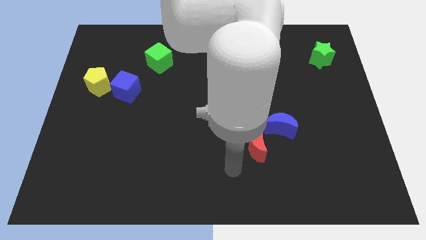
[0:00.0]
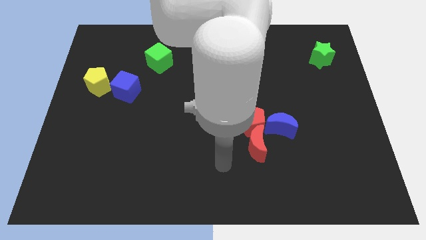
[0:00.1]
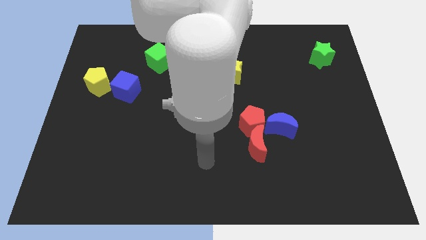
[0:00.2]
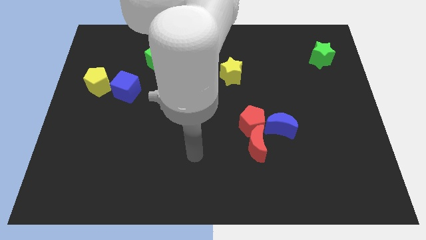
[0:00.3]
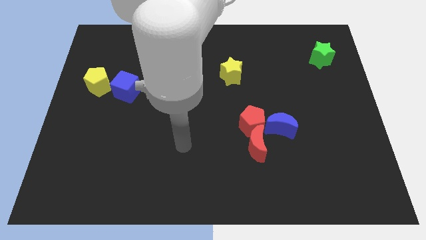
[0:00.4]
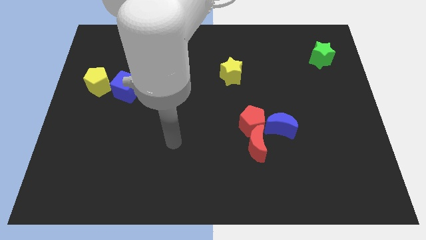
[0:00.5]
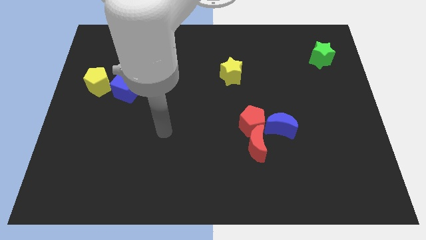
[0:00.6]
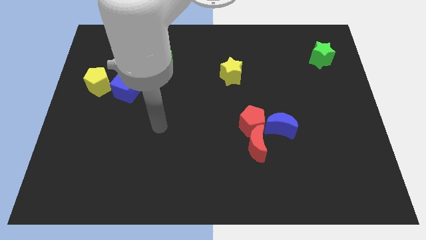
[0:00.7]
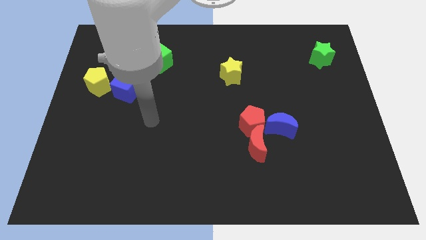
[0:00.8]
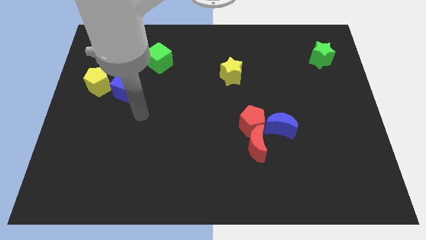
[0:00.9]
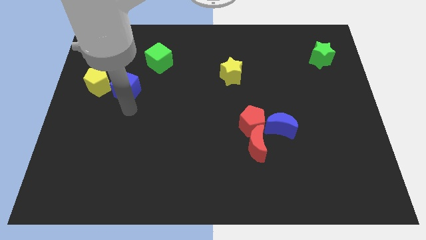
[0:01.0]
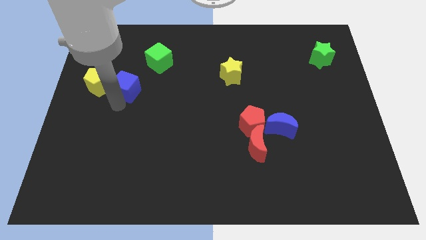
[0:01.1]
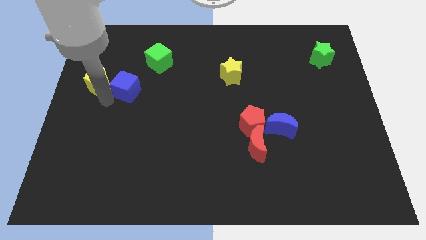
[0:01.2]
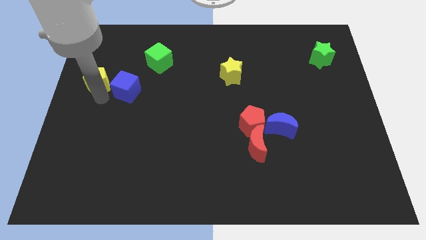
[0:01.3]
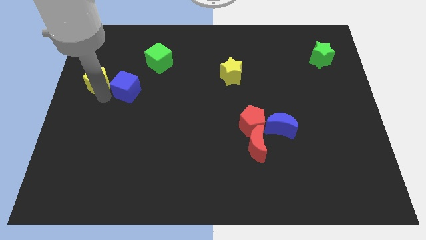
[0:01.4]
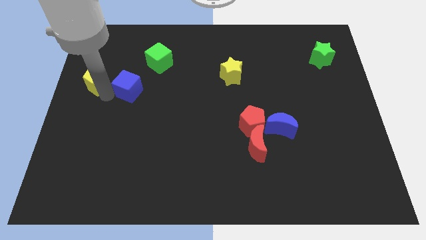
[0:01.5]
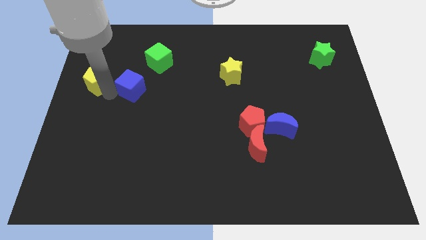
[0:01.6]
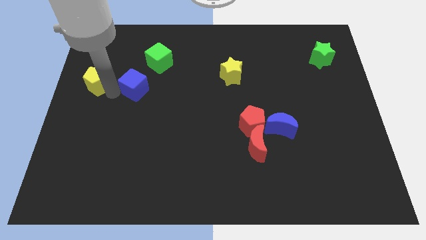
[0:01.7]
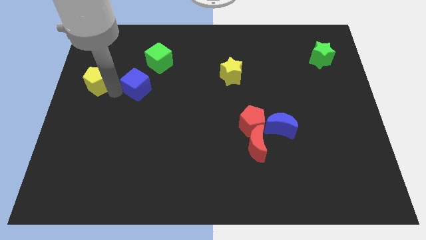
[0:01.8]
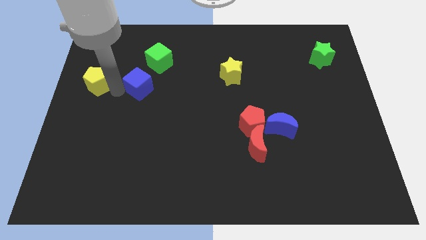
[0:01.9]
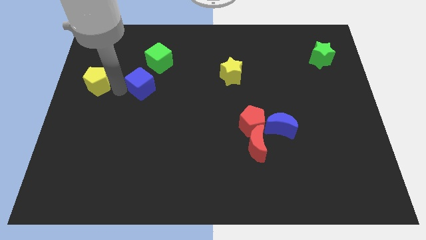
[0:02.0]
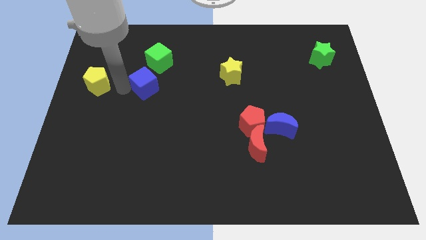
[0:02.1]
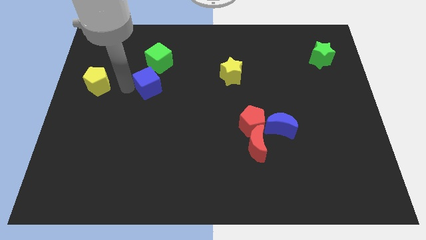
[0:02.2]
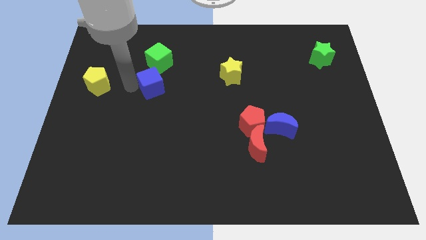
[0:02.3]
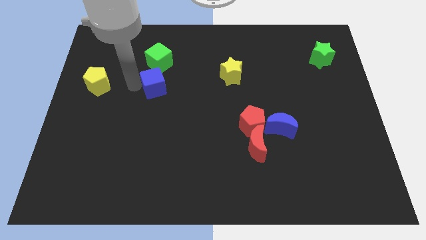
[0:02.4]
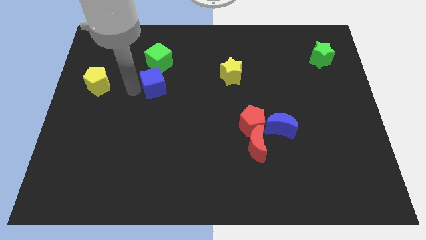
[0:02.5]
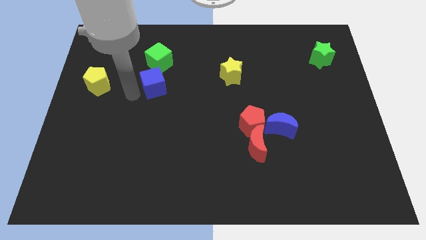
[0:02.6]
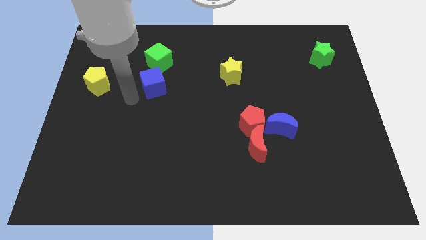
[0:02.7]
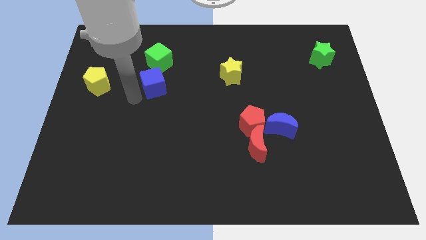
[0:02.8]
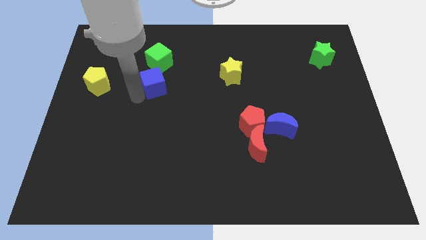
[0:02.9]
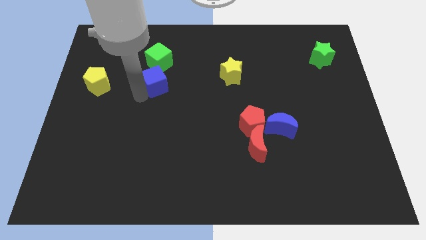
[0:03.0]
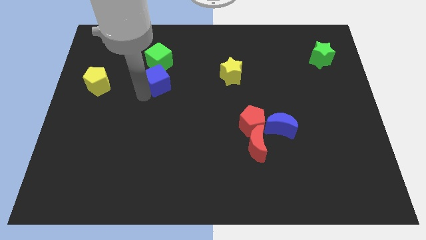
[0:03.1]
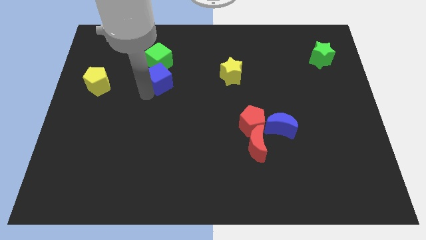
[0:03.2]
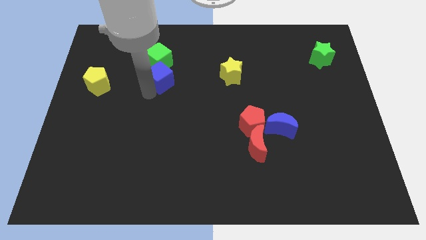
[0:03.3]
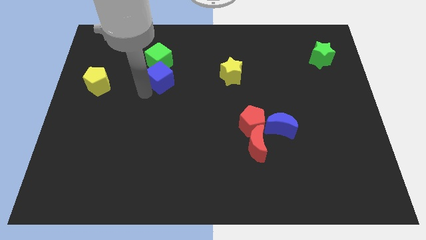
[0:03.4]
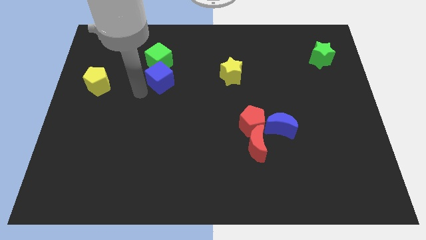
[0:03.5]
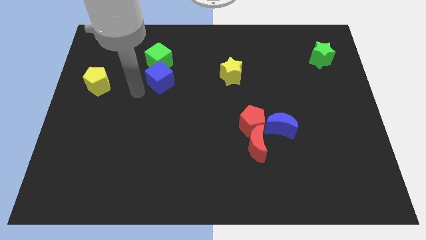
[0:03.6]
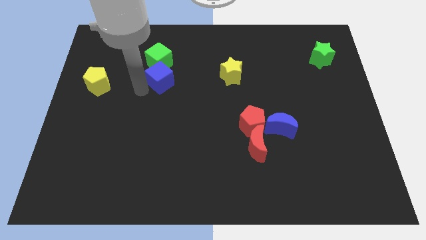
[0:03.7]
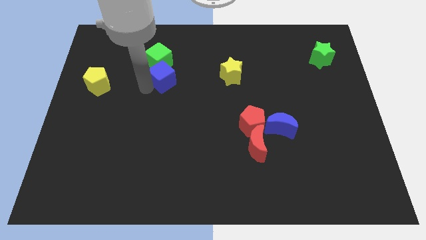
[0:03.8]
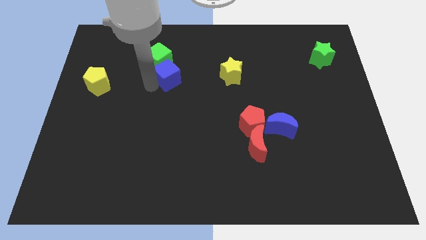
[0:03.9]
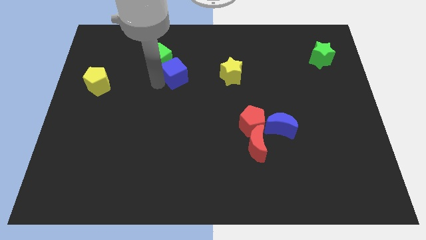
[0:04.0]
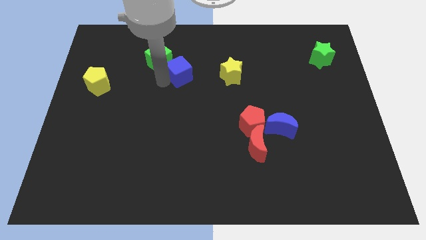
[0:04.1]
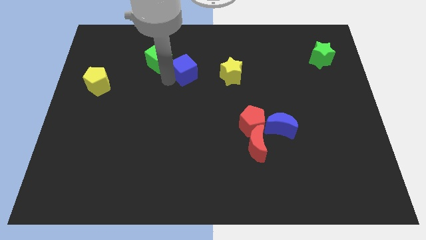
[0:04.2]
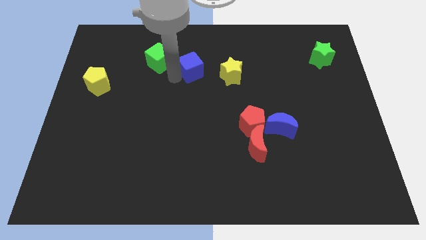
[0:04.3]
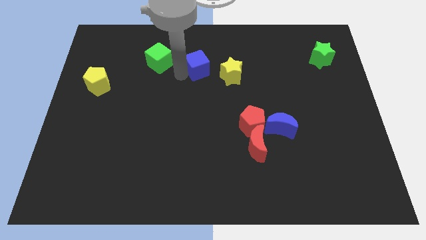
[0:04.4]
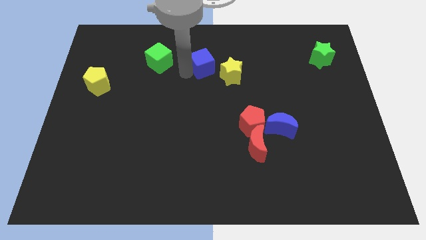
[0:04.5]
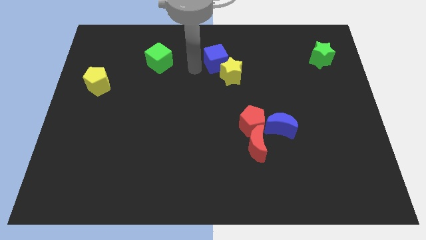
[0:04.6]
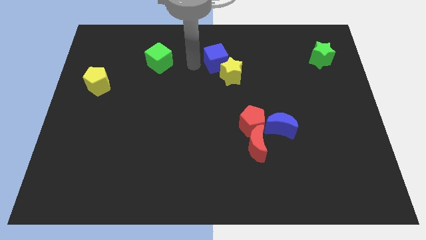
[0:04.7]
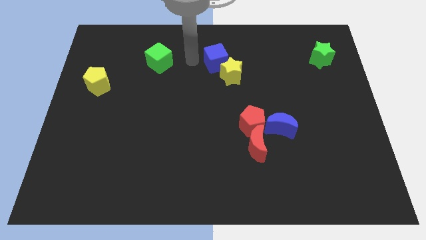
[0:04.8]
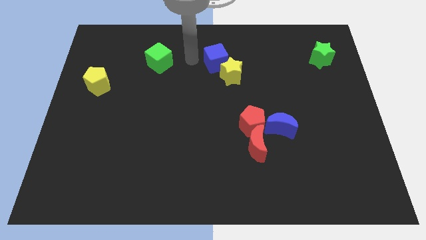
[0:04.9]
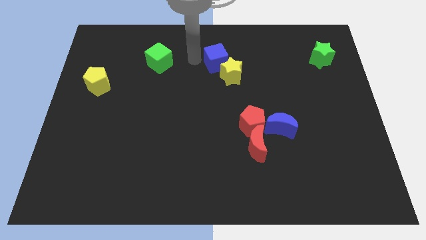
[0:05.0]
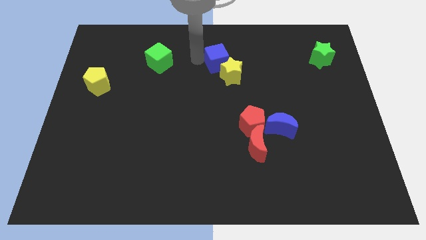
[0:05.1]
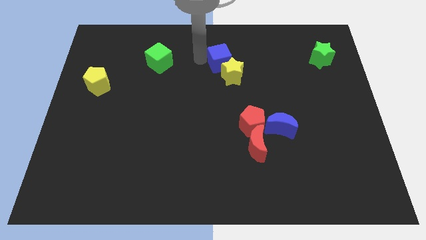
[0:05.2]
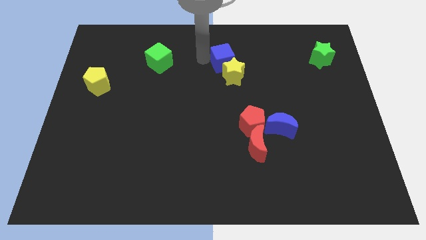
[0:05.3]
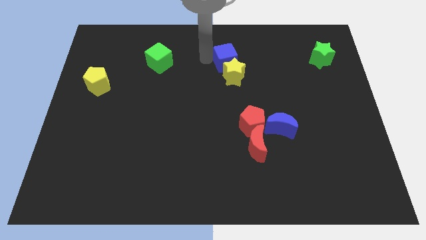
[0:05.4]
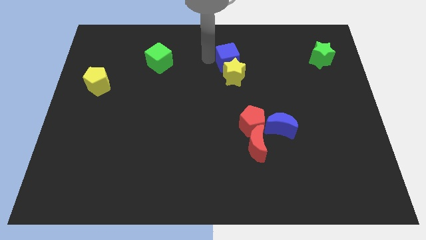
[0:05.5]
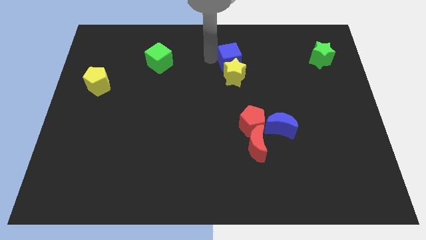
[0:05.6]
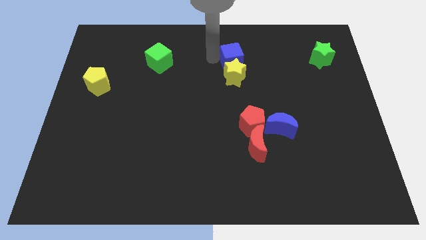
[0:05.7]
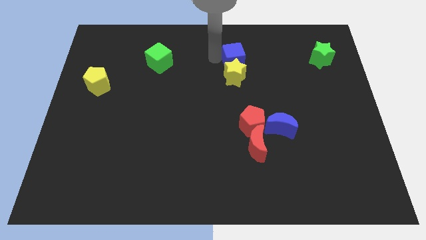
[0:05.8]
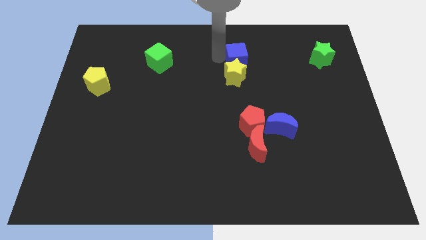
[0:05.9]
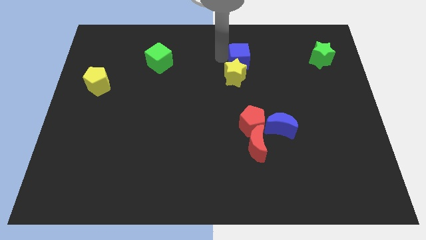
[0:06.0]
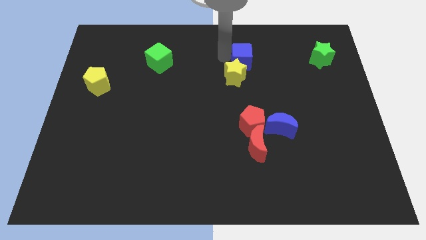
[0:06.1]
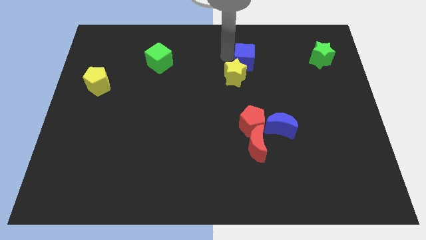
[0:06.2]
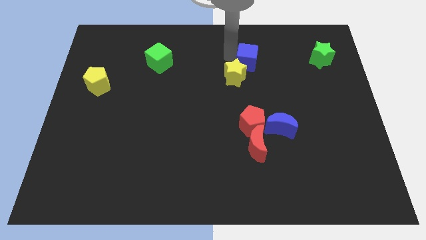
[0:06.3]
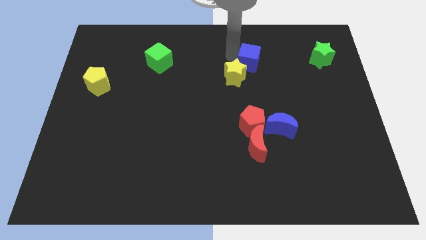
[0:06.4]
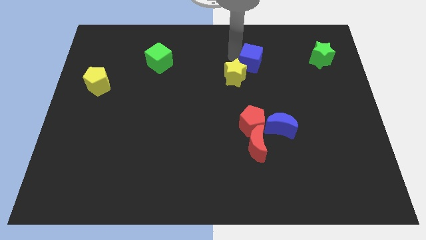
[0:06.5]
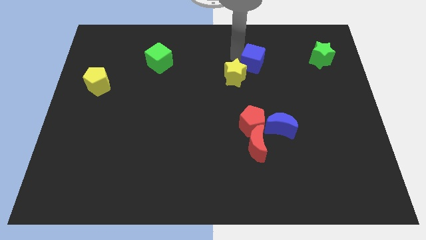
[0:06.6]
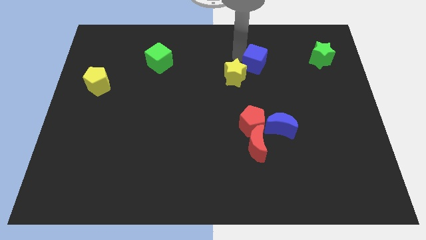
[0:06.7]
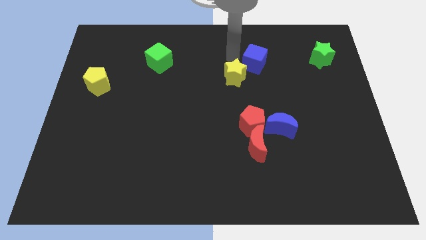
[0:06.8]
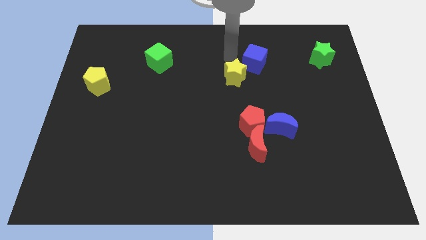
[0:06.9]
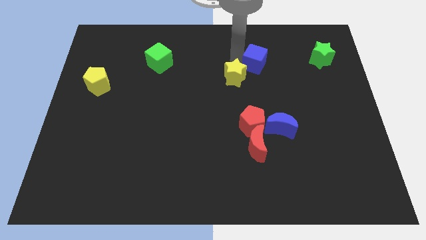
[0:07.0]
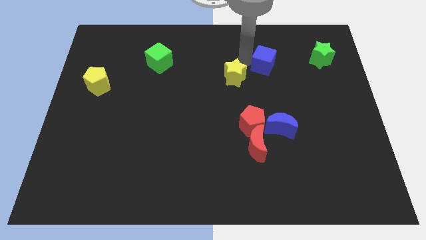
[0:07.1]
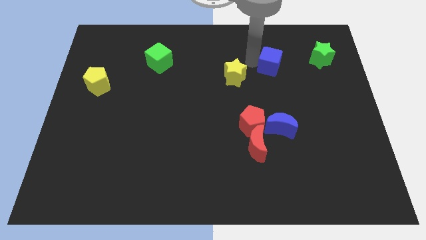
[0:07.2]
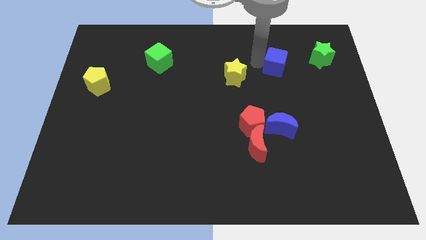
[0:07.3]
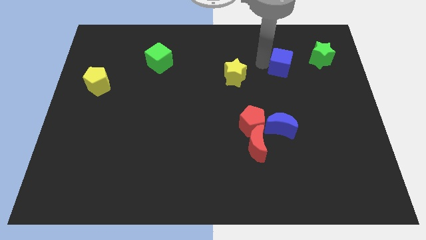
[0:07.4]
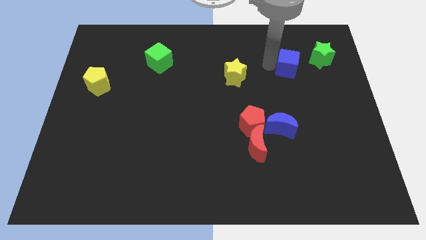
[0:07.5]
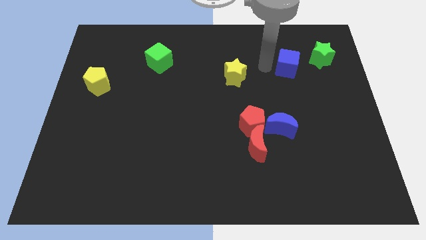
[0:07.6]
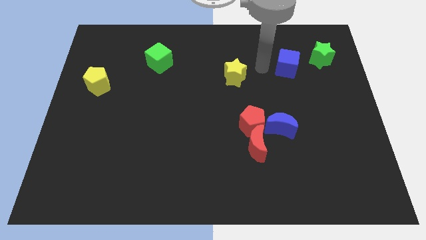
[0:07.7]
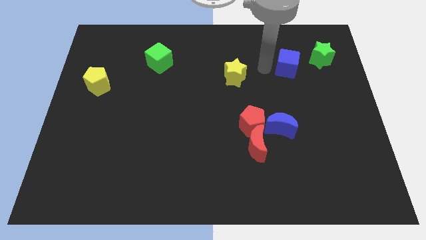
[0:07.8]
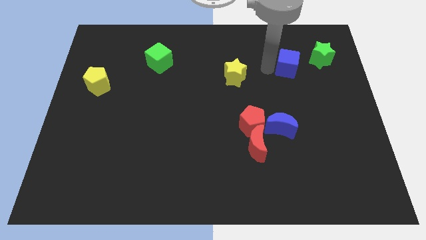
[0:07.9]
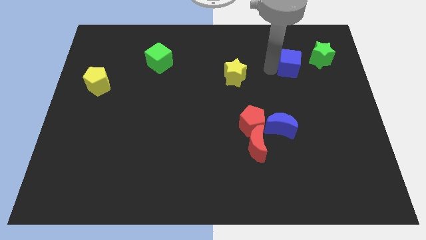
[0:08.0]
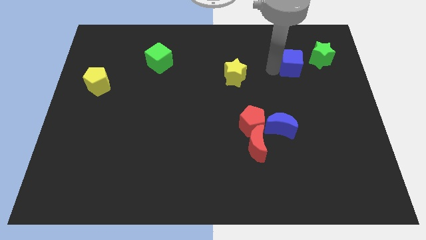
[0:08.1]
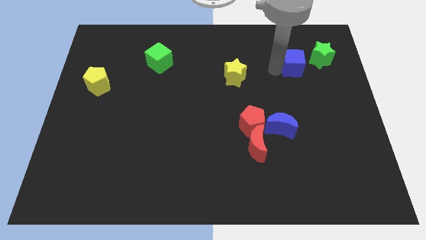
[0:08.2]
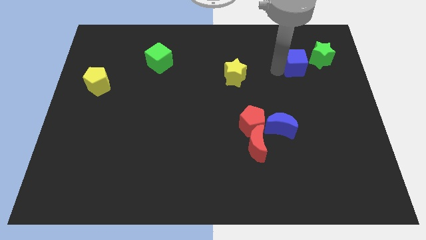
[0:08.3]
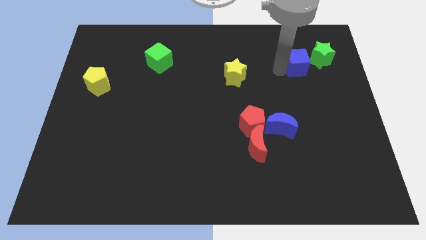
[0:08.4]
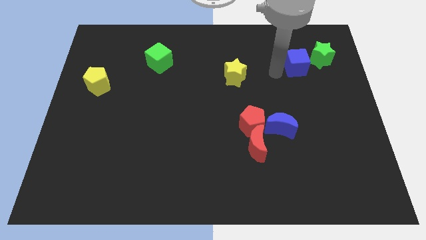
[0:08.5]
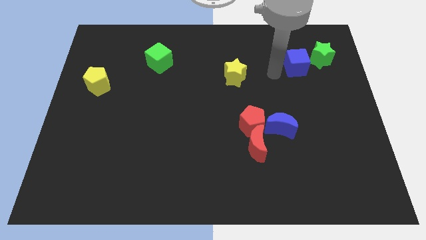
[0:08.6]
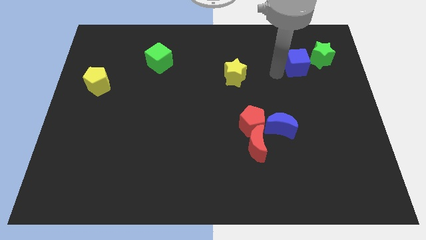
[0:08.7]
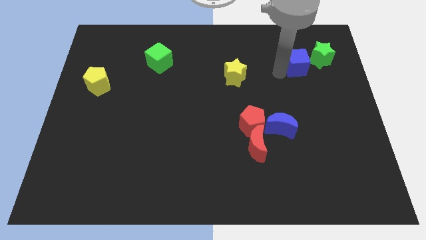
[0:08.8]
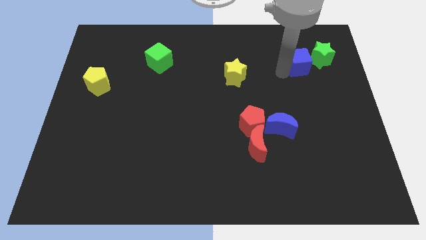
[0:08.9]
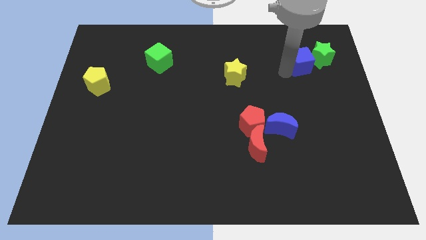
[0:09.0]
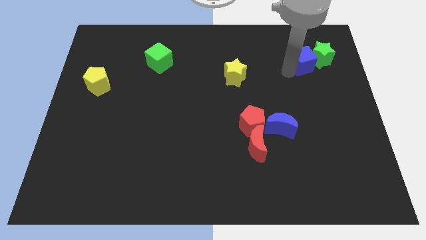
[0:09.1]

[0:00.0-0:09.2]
slide the blue cube next to the green star
